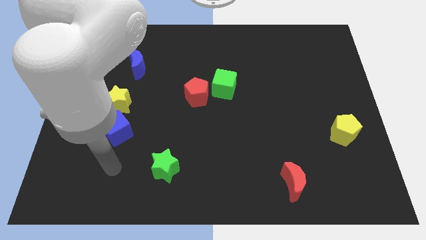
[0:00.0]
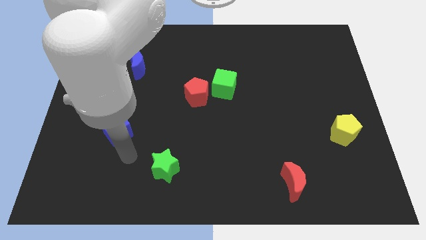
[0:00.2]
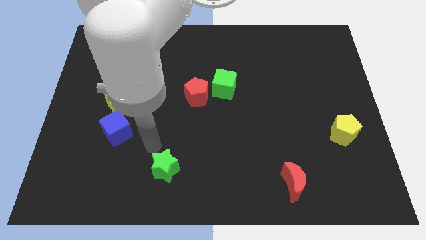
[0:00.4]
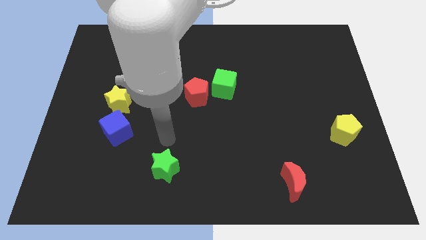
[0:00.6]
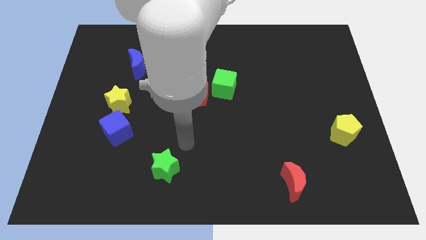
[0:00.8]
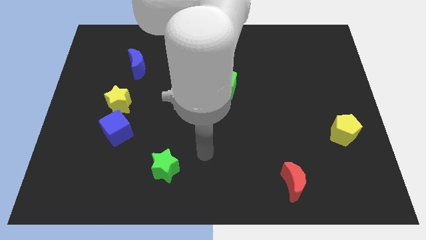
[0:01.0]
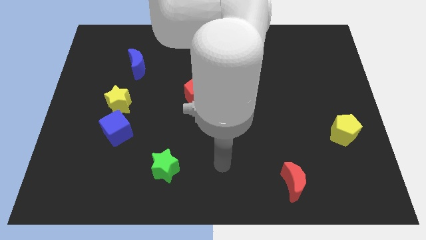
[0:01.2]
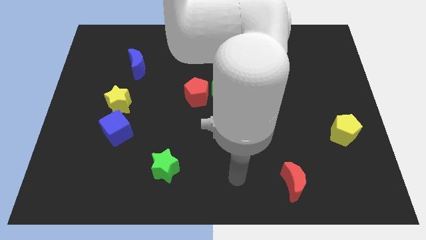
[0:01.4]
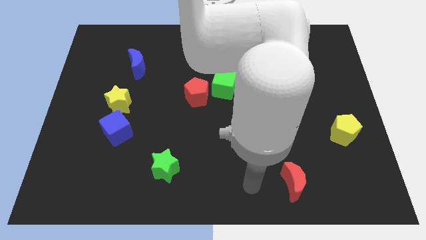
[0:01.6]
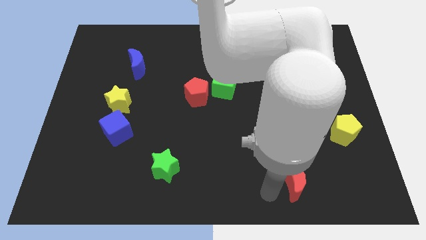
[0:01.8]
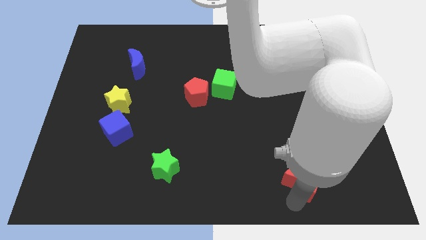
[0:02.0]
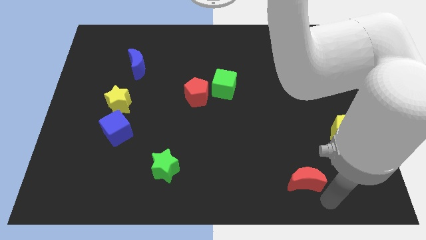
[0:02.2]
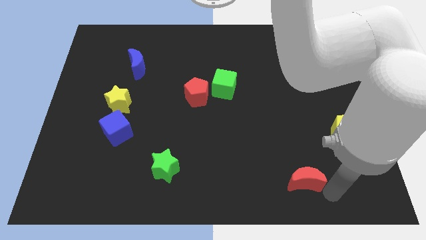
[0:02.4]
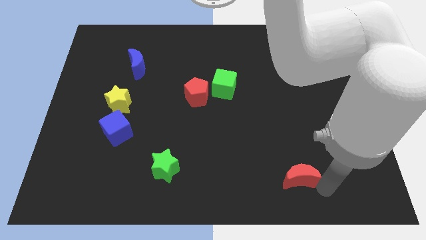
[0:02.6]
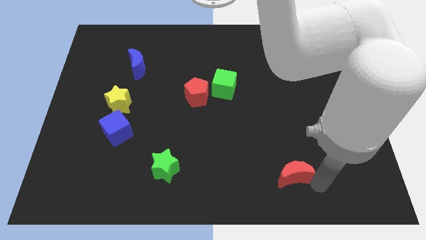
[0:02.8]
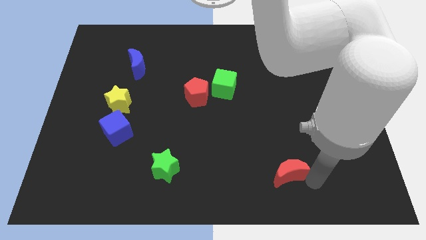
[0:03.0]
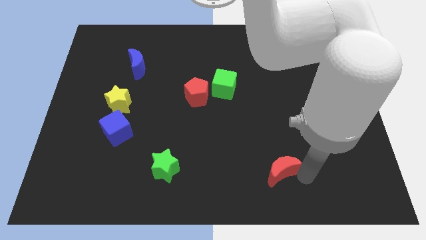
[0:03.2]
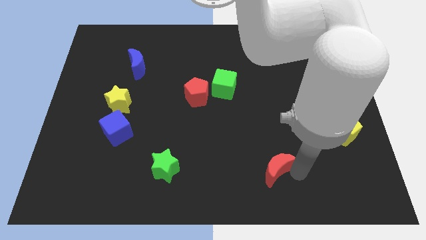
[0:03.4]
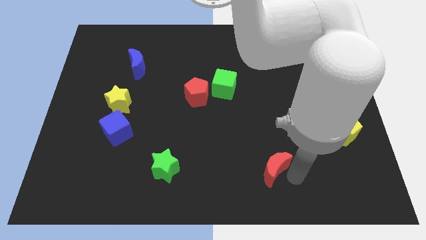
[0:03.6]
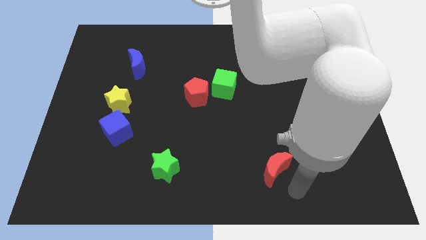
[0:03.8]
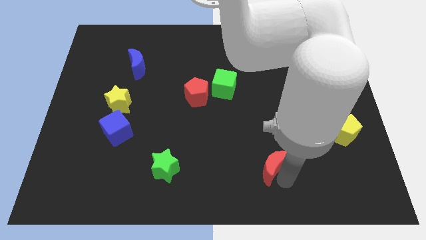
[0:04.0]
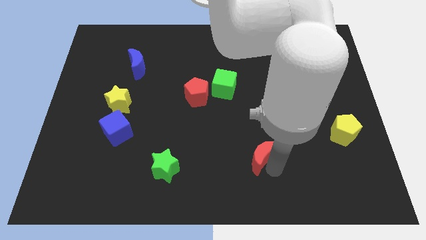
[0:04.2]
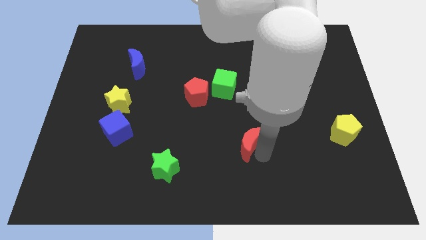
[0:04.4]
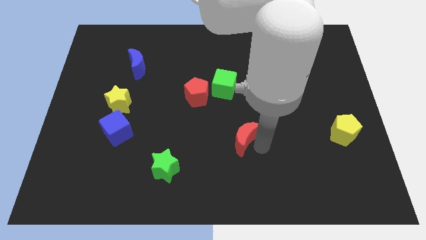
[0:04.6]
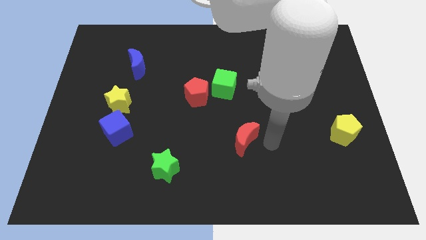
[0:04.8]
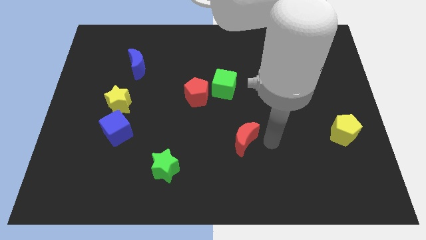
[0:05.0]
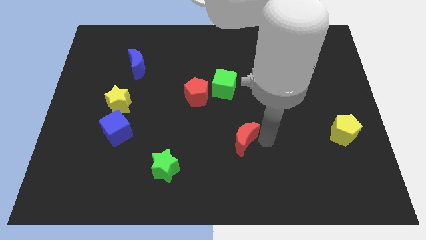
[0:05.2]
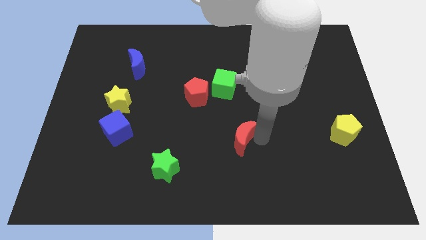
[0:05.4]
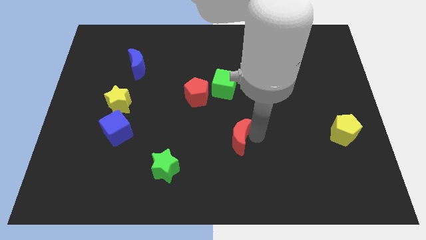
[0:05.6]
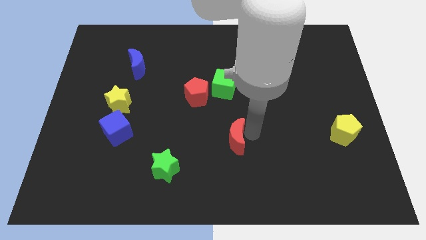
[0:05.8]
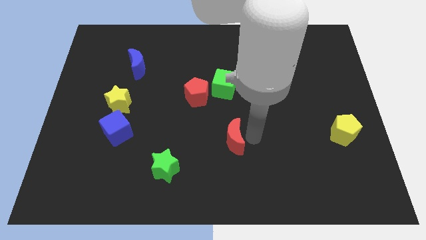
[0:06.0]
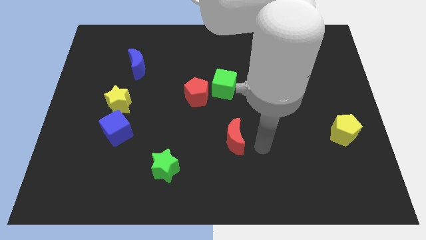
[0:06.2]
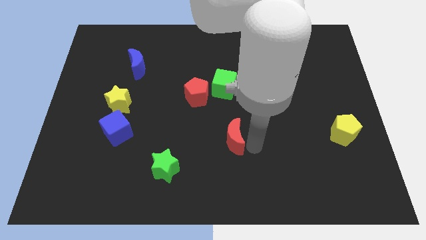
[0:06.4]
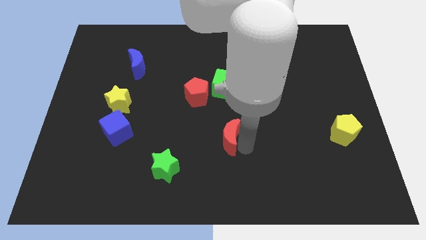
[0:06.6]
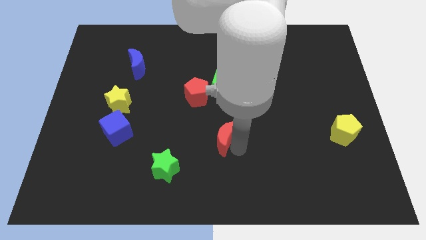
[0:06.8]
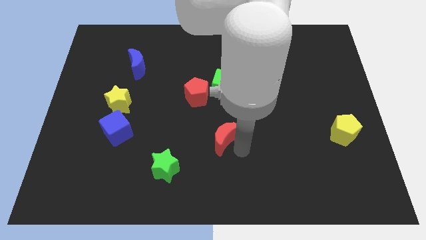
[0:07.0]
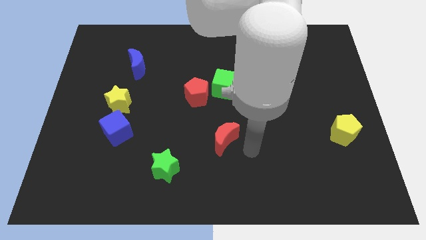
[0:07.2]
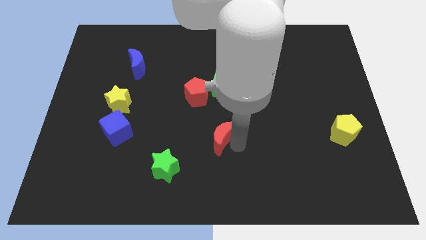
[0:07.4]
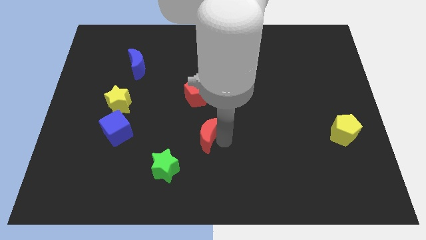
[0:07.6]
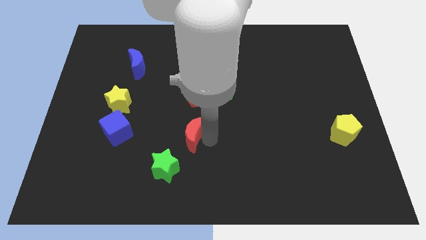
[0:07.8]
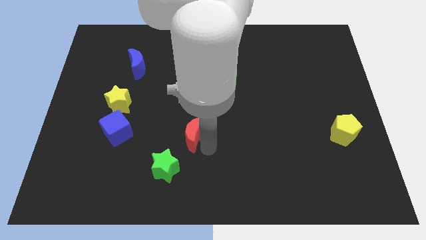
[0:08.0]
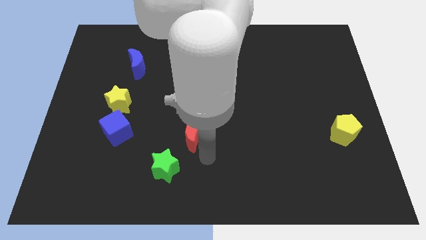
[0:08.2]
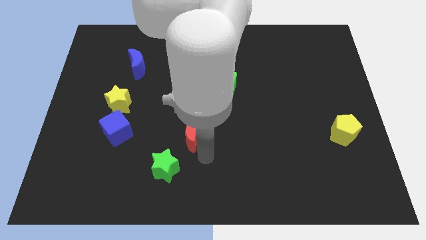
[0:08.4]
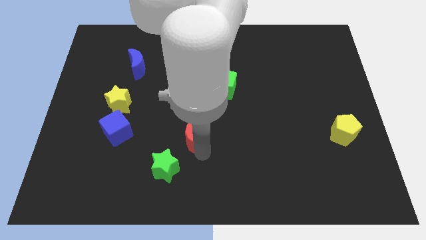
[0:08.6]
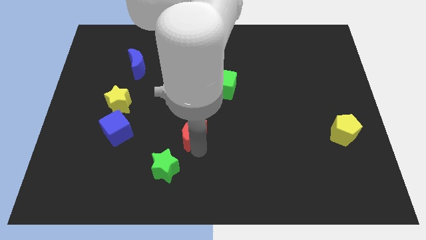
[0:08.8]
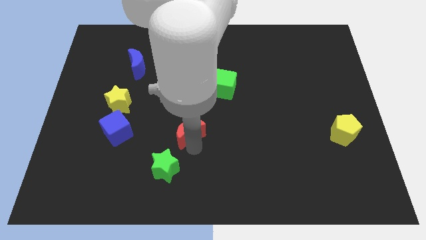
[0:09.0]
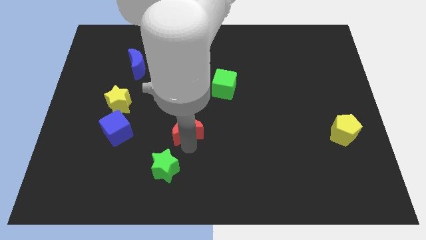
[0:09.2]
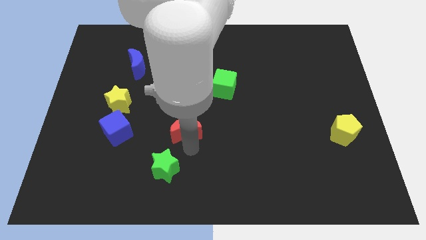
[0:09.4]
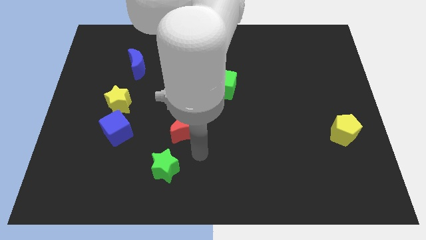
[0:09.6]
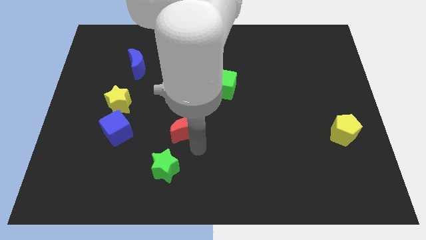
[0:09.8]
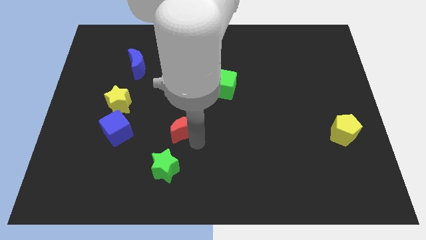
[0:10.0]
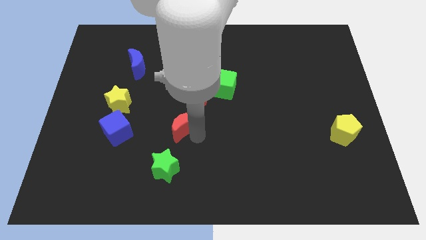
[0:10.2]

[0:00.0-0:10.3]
slide the red moon to the bottom left of the red pentagon

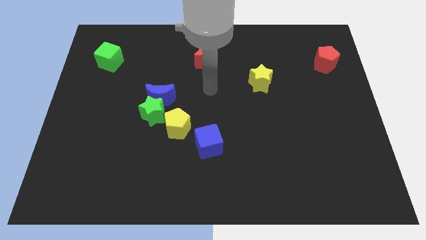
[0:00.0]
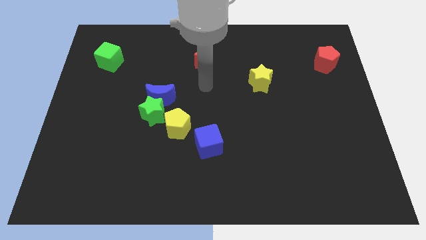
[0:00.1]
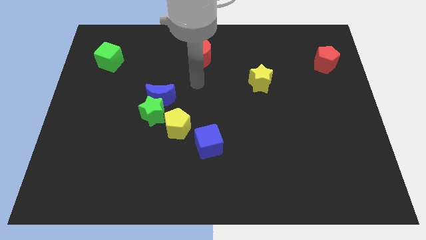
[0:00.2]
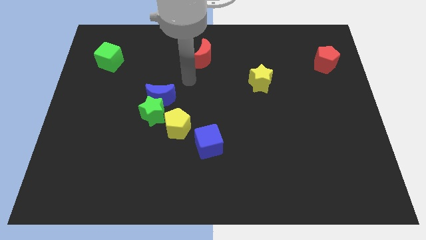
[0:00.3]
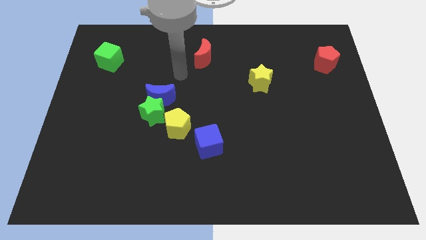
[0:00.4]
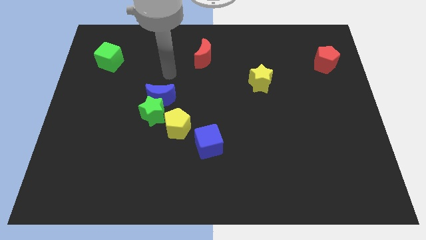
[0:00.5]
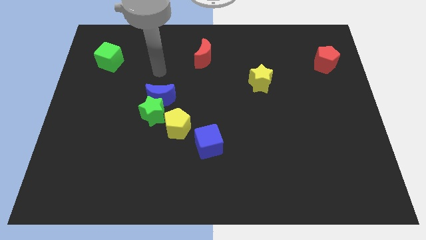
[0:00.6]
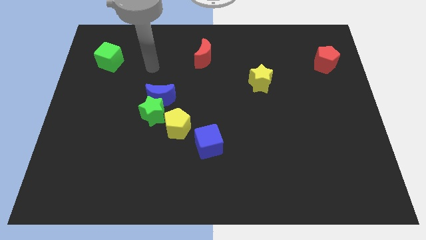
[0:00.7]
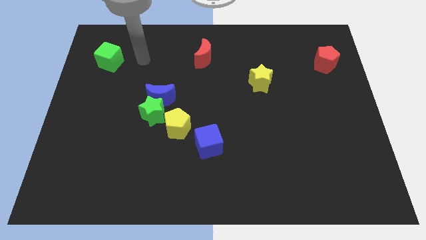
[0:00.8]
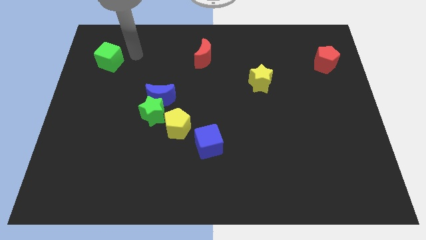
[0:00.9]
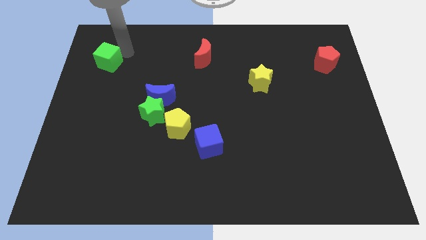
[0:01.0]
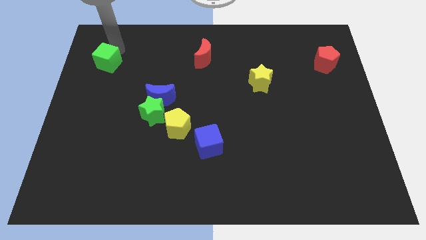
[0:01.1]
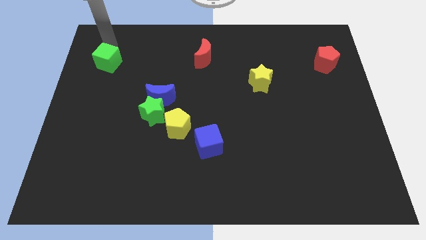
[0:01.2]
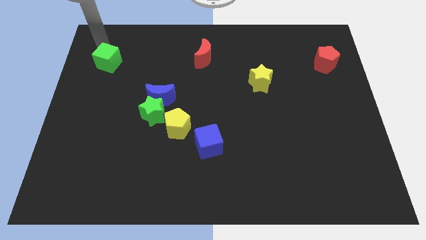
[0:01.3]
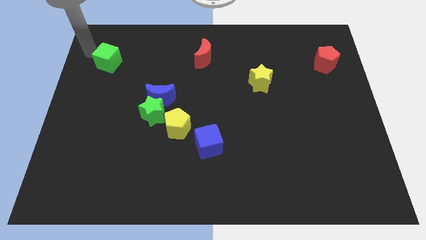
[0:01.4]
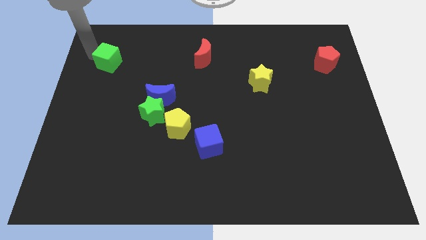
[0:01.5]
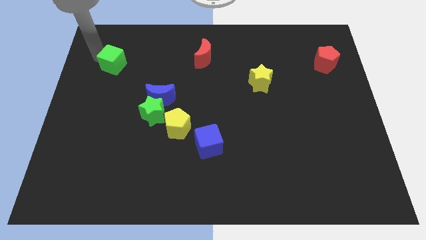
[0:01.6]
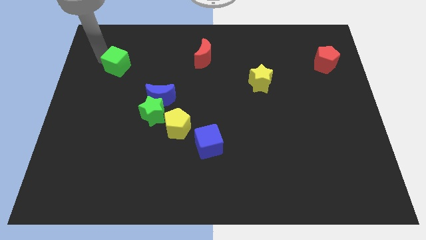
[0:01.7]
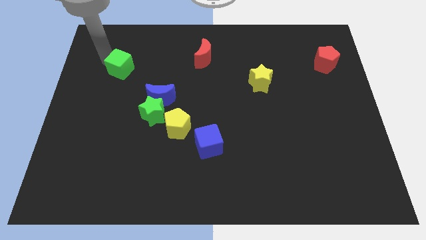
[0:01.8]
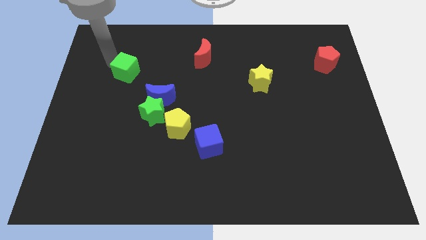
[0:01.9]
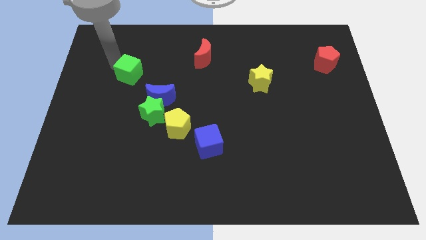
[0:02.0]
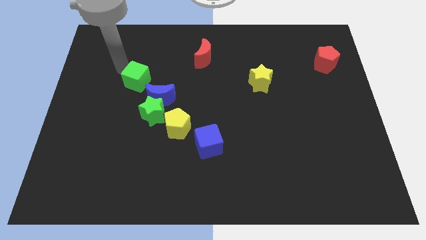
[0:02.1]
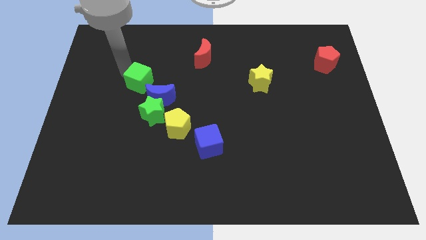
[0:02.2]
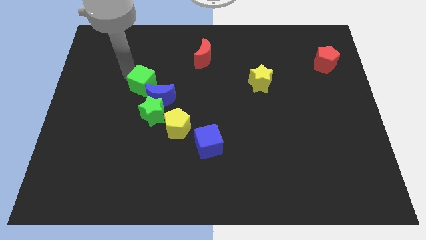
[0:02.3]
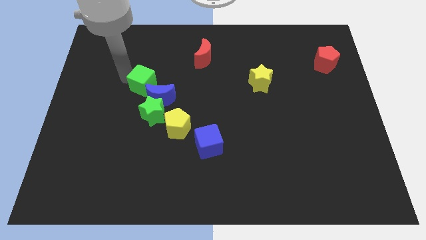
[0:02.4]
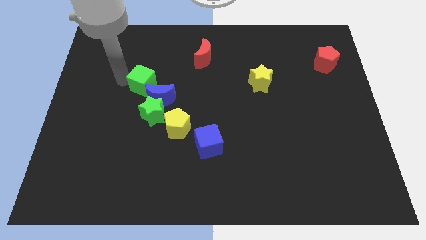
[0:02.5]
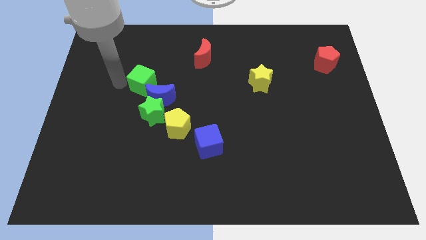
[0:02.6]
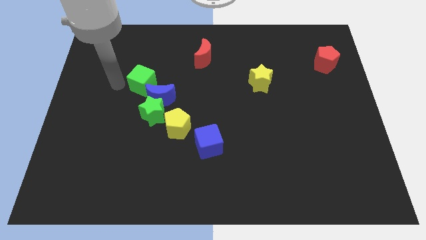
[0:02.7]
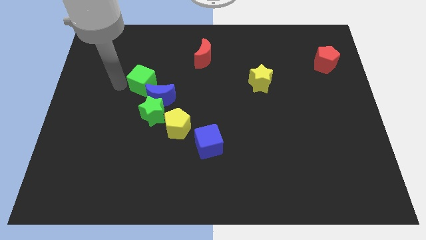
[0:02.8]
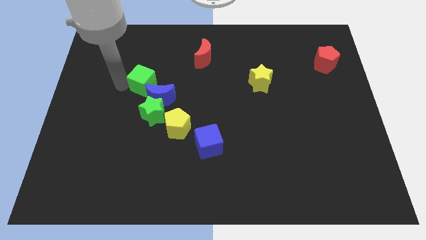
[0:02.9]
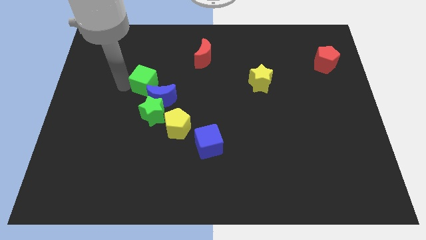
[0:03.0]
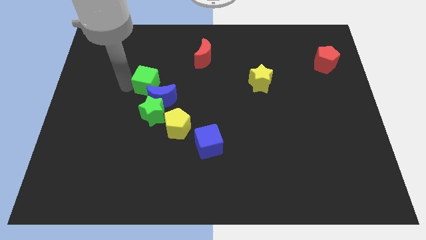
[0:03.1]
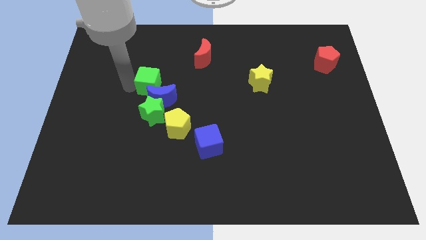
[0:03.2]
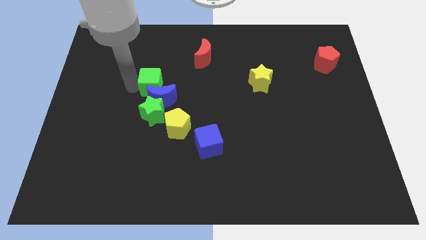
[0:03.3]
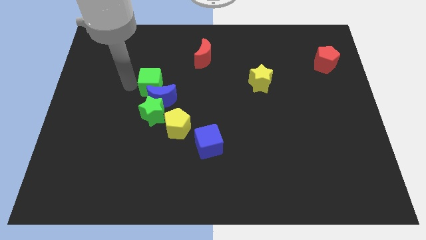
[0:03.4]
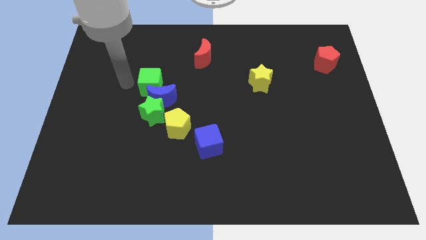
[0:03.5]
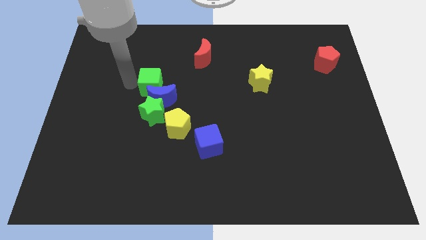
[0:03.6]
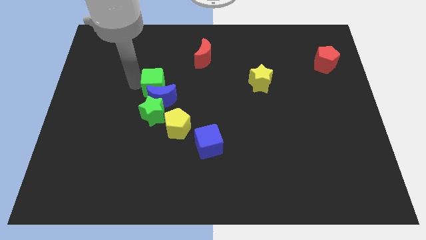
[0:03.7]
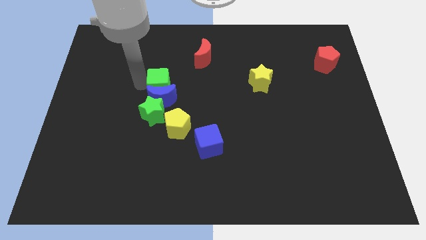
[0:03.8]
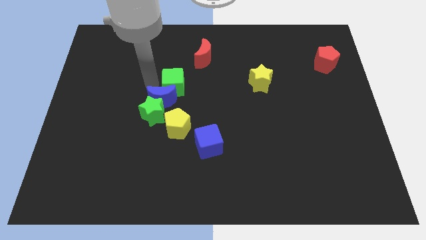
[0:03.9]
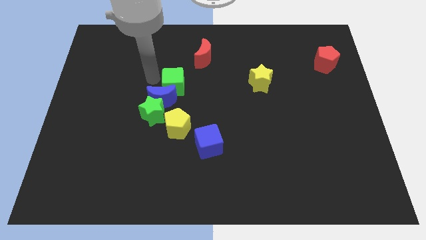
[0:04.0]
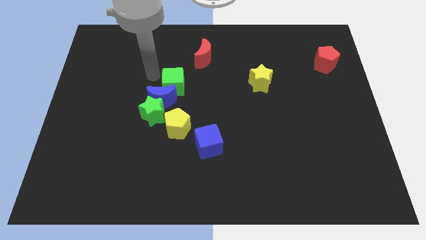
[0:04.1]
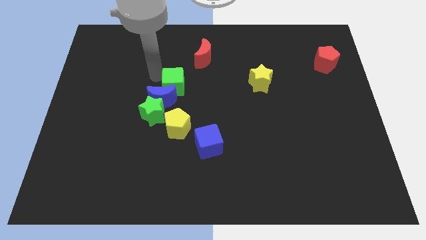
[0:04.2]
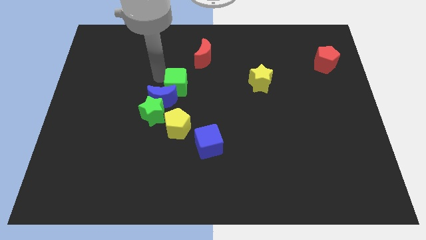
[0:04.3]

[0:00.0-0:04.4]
put the green cube right of the blue moon
